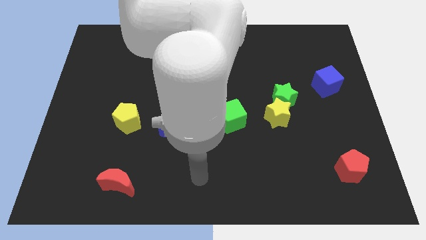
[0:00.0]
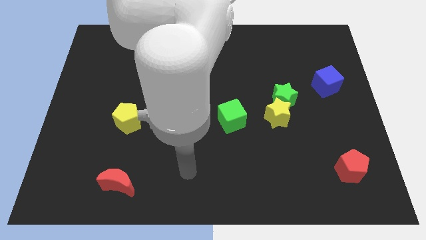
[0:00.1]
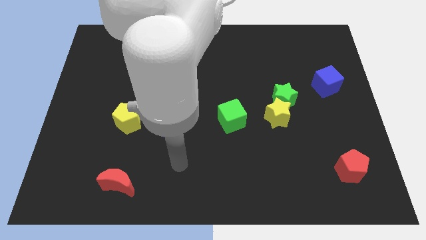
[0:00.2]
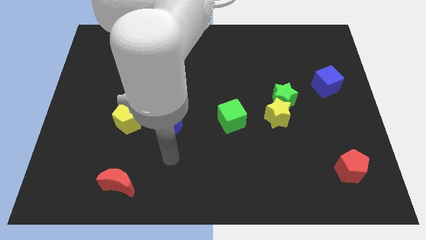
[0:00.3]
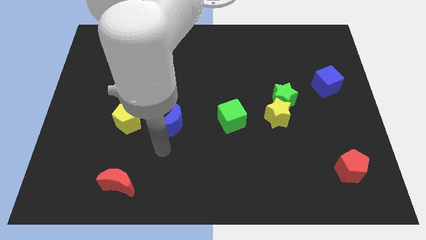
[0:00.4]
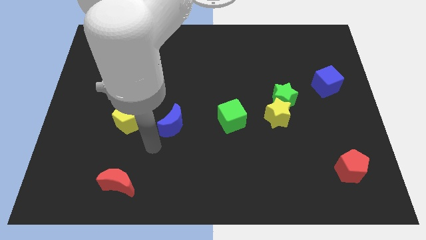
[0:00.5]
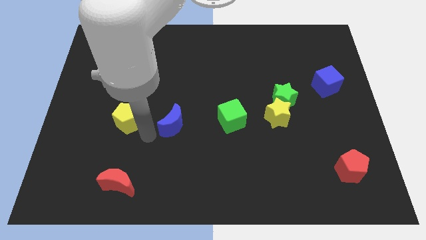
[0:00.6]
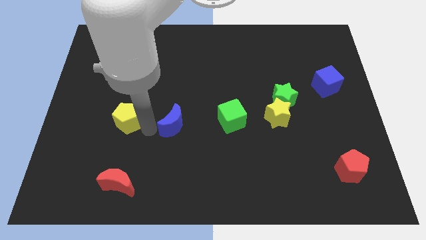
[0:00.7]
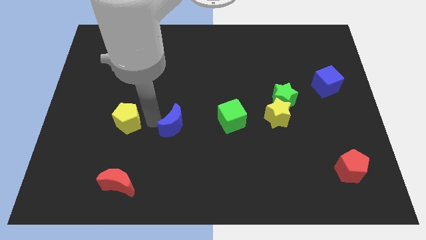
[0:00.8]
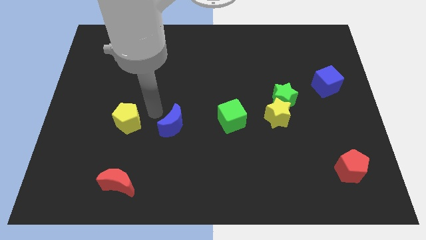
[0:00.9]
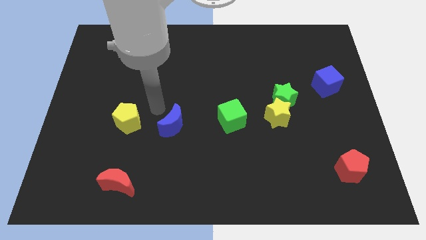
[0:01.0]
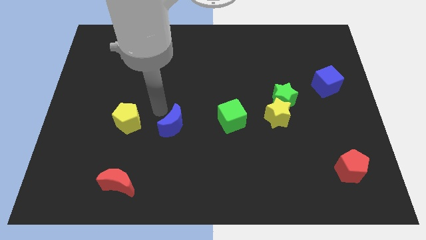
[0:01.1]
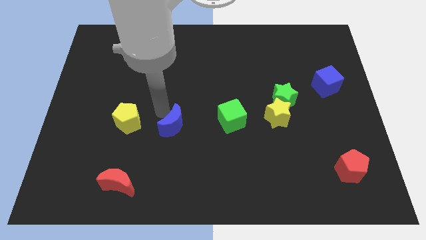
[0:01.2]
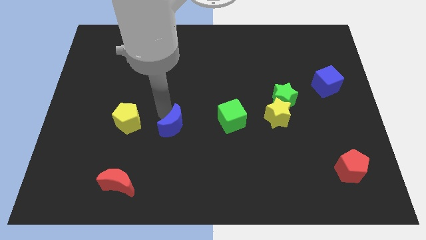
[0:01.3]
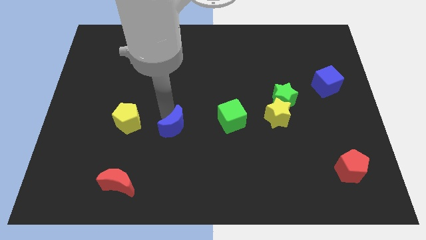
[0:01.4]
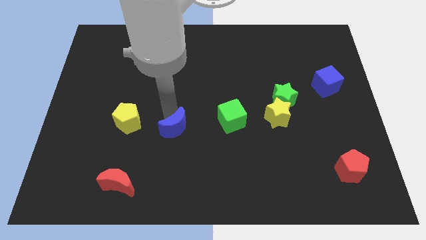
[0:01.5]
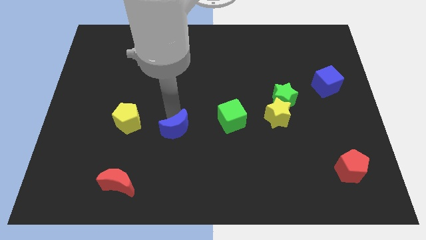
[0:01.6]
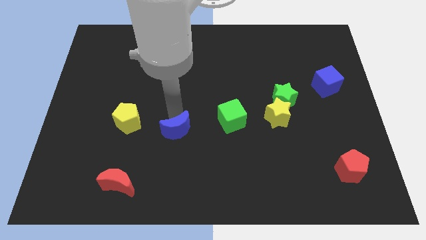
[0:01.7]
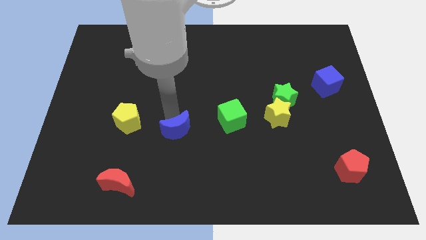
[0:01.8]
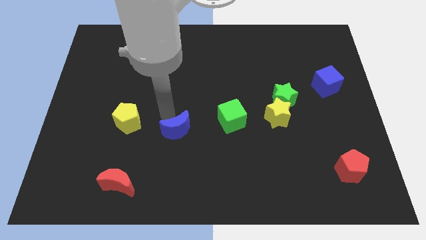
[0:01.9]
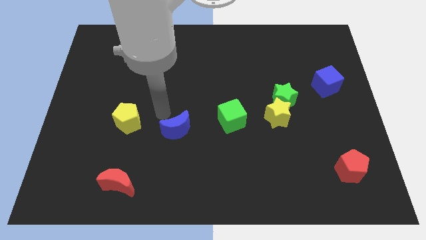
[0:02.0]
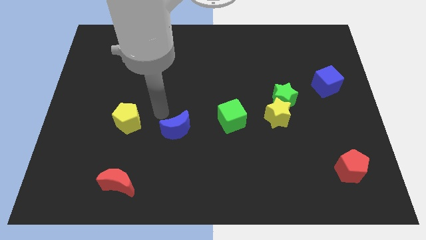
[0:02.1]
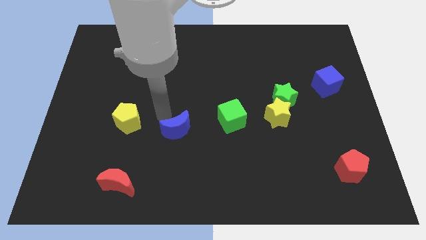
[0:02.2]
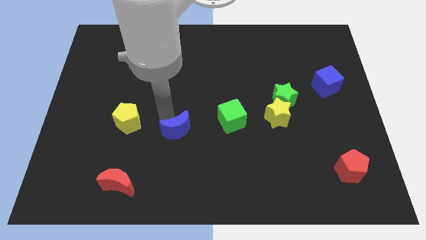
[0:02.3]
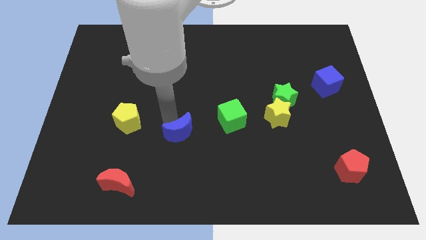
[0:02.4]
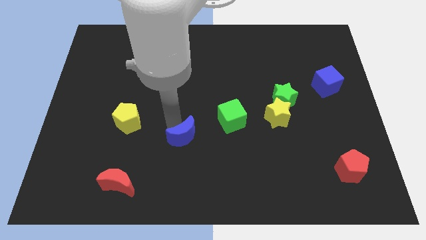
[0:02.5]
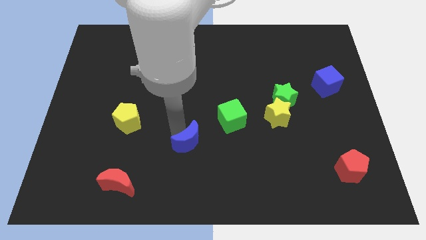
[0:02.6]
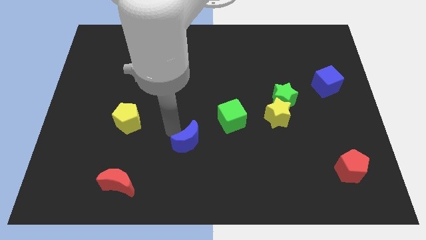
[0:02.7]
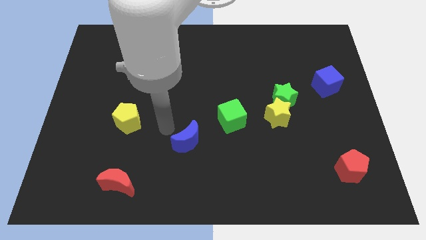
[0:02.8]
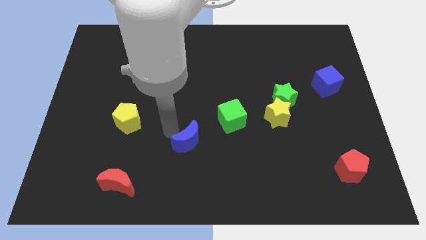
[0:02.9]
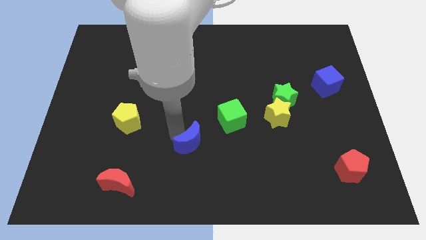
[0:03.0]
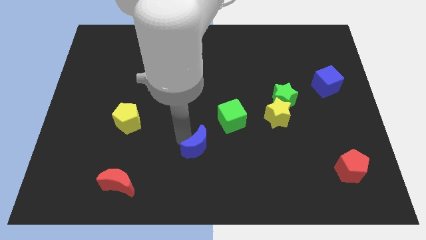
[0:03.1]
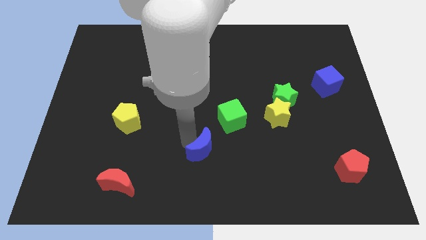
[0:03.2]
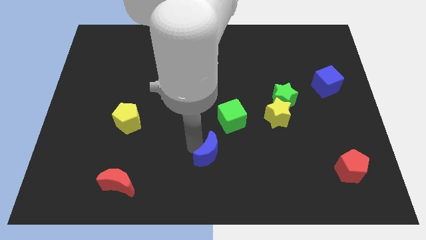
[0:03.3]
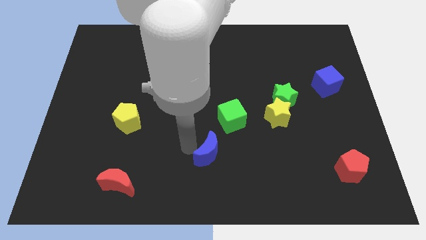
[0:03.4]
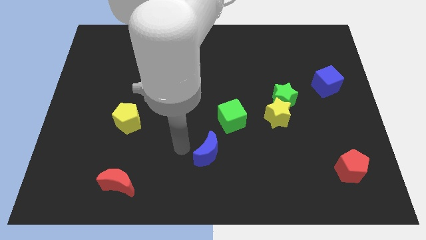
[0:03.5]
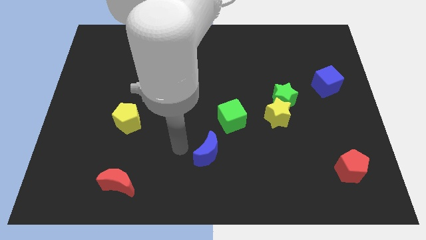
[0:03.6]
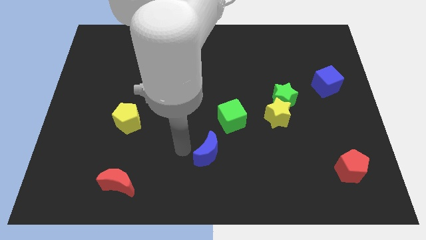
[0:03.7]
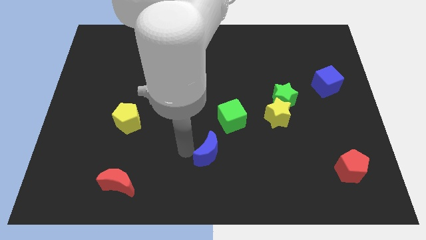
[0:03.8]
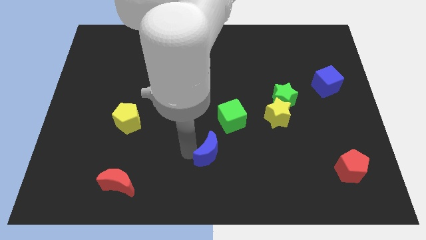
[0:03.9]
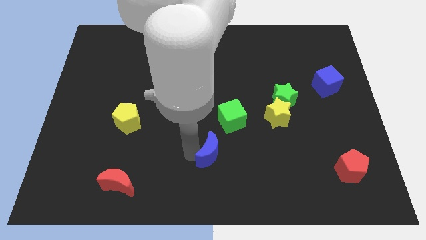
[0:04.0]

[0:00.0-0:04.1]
slide the blue moon to the bottom of the green cube

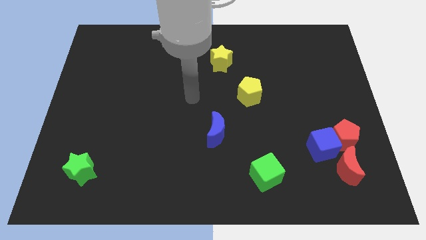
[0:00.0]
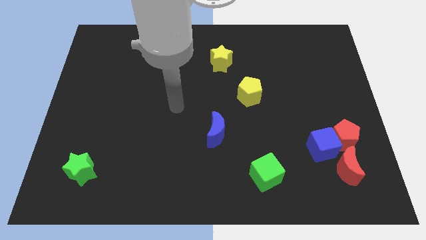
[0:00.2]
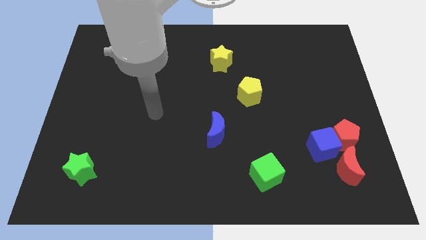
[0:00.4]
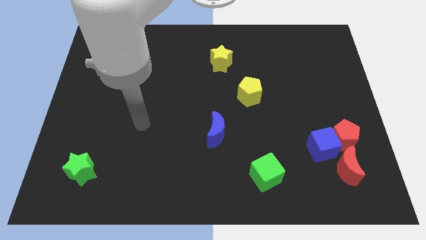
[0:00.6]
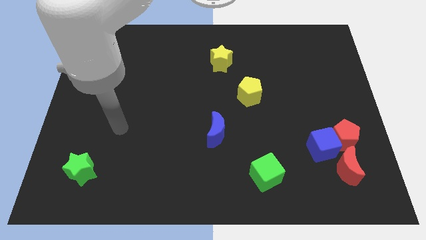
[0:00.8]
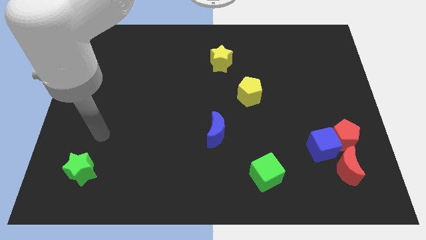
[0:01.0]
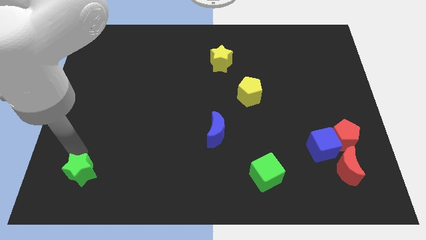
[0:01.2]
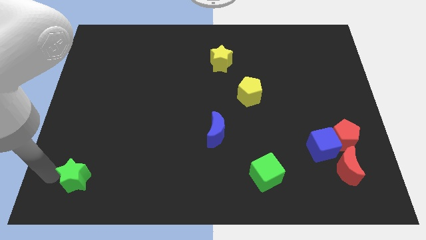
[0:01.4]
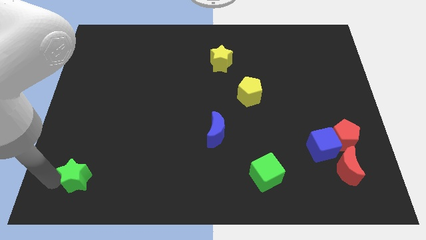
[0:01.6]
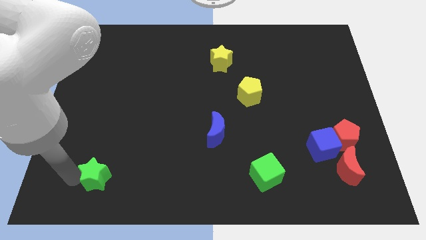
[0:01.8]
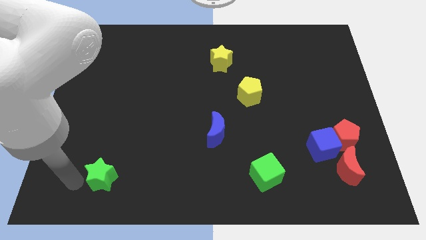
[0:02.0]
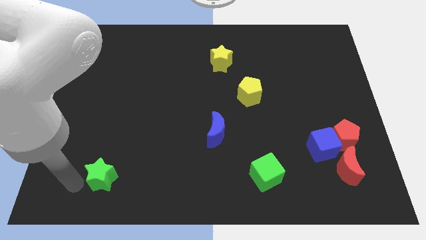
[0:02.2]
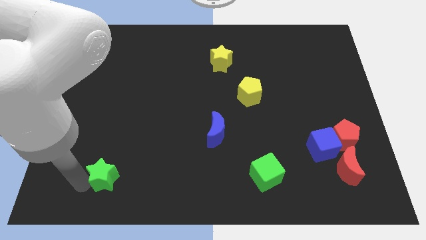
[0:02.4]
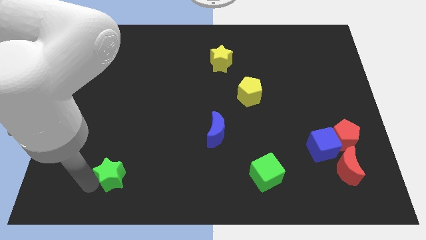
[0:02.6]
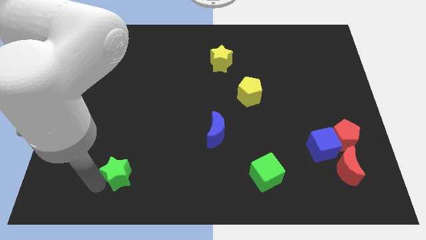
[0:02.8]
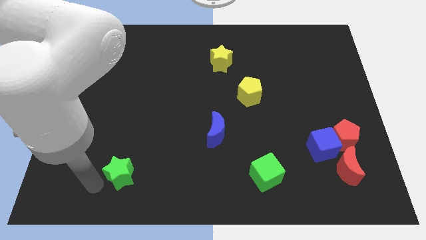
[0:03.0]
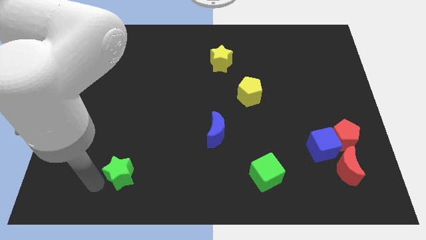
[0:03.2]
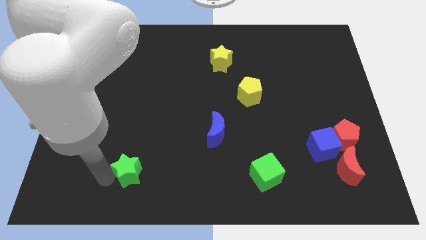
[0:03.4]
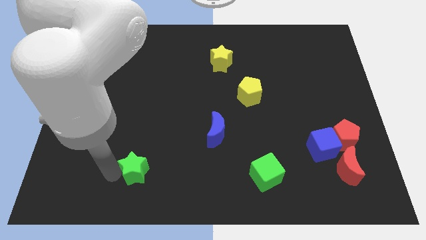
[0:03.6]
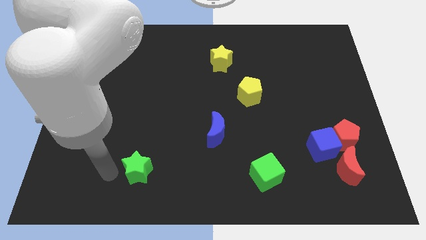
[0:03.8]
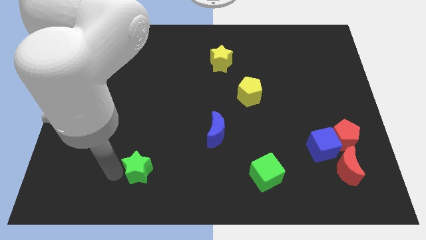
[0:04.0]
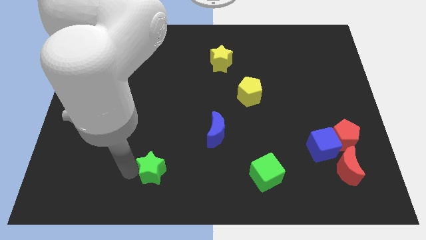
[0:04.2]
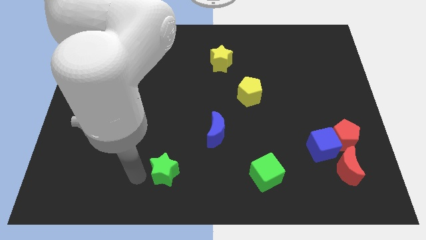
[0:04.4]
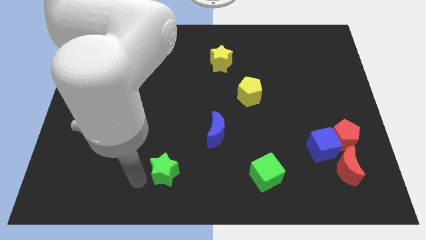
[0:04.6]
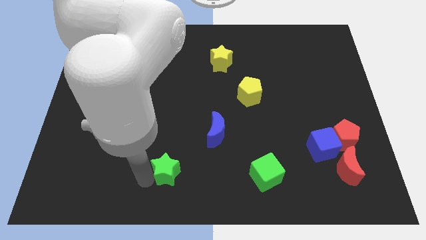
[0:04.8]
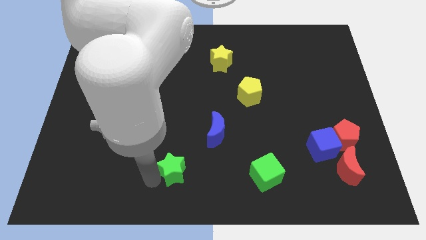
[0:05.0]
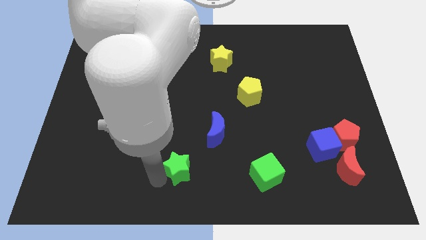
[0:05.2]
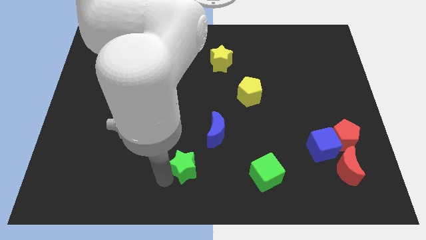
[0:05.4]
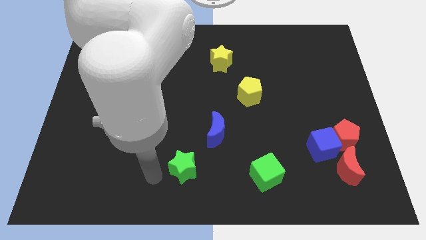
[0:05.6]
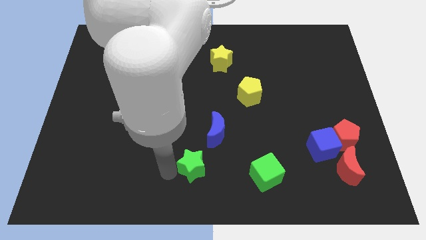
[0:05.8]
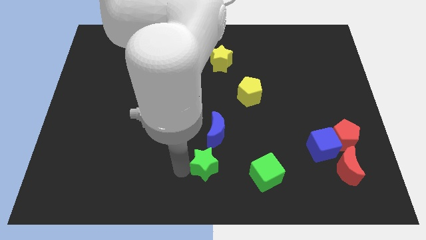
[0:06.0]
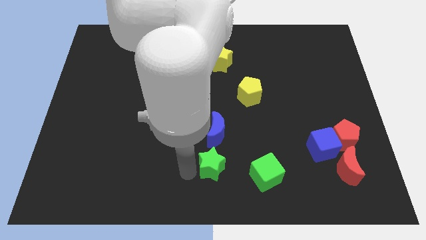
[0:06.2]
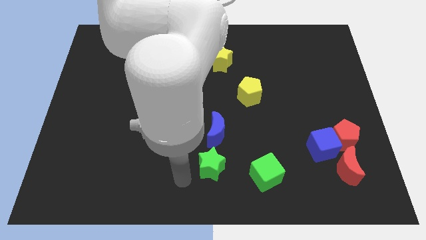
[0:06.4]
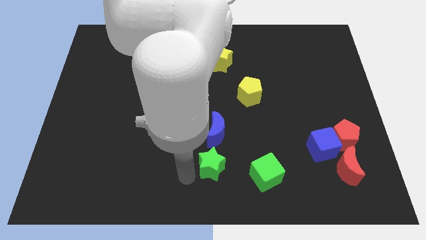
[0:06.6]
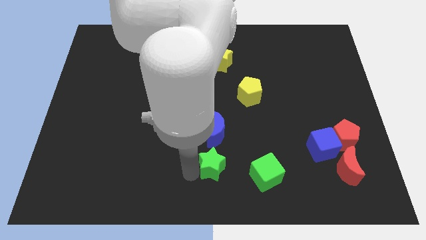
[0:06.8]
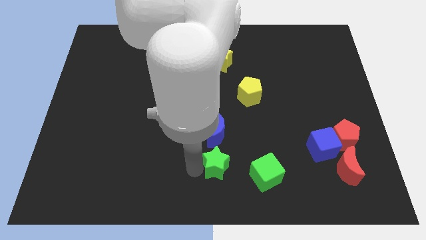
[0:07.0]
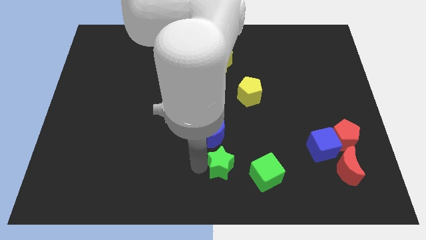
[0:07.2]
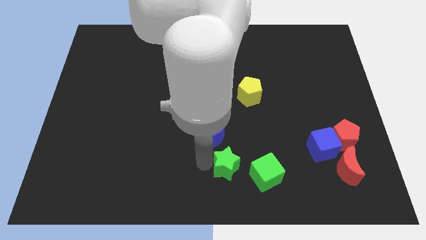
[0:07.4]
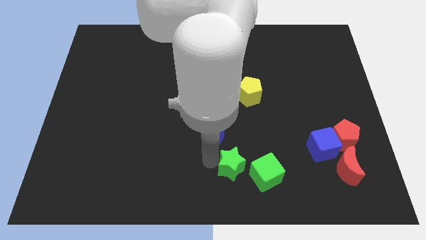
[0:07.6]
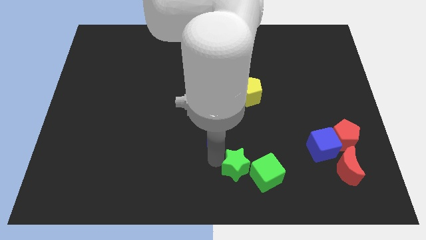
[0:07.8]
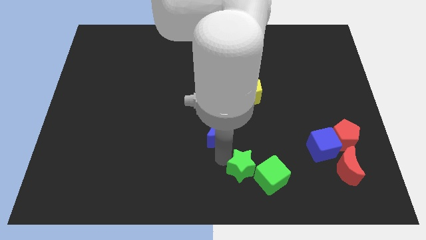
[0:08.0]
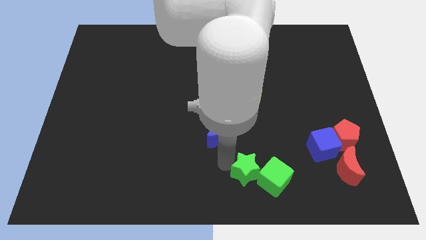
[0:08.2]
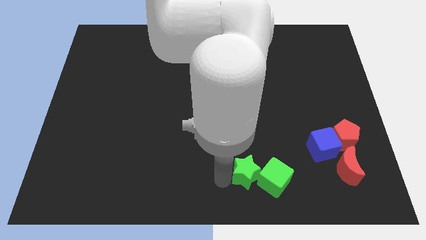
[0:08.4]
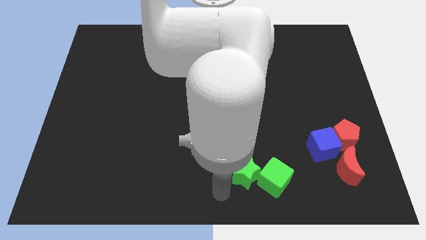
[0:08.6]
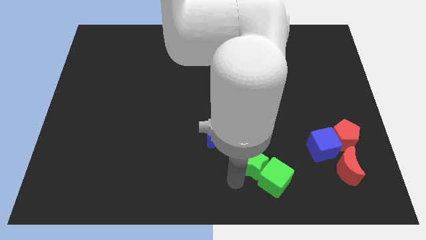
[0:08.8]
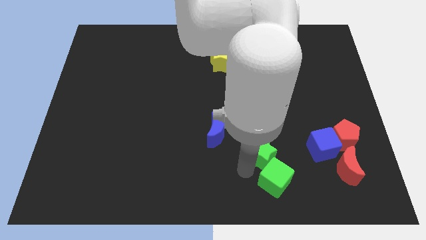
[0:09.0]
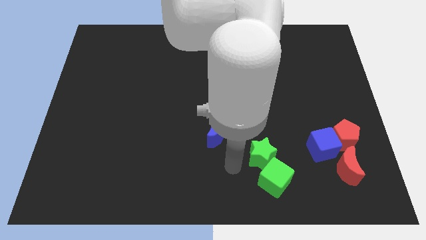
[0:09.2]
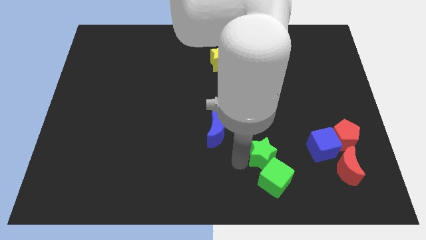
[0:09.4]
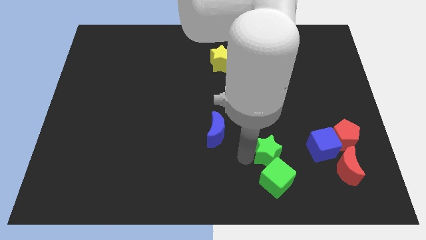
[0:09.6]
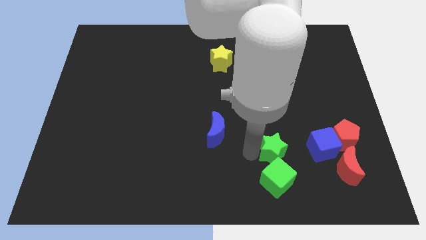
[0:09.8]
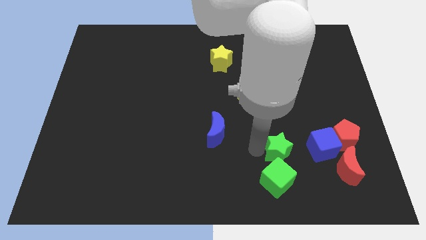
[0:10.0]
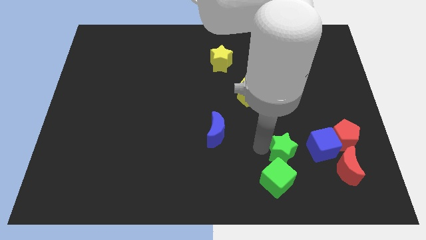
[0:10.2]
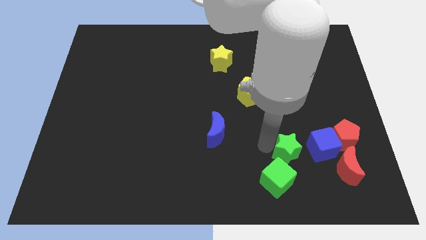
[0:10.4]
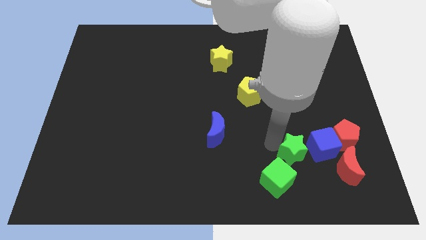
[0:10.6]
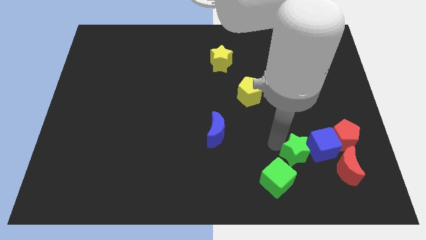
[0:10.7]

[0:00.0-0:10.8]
move the green star diagonally up and to the left of the red moon
